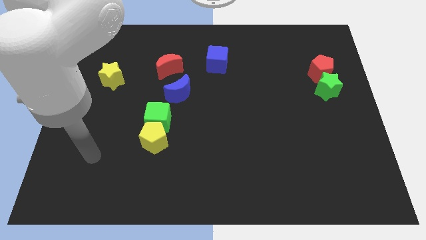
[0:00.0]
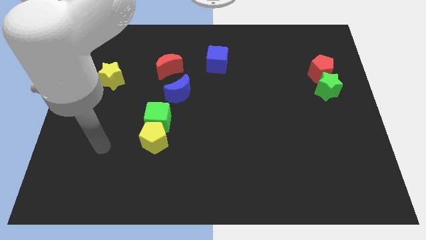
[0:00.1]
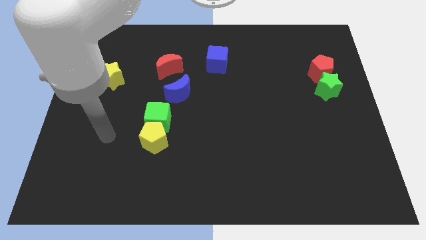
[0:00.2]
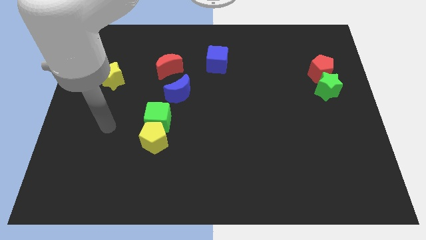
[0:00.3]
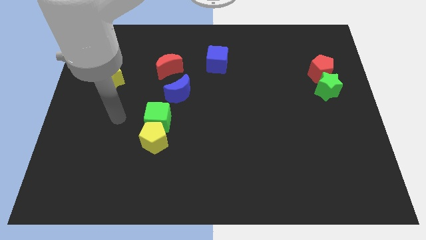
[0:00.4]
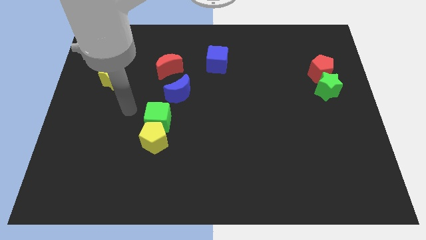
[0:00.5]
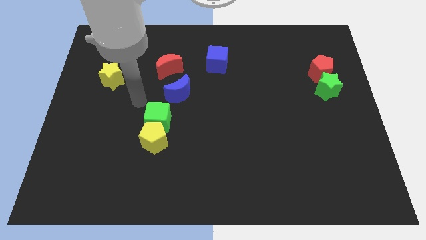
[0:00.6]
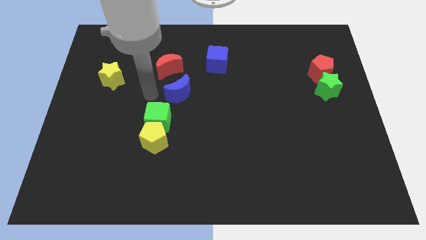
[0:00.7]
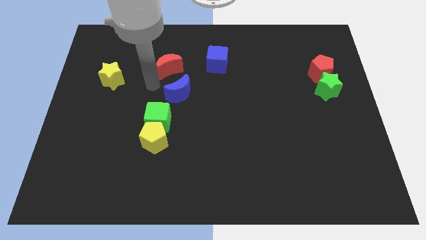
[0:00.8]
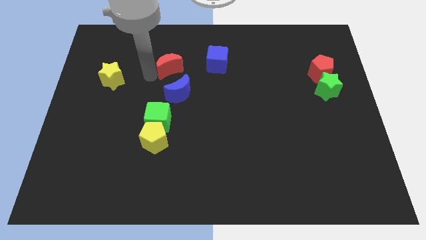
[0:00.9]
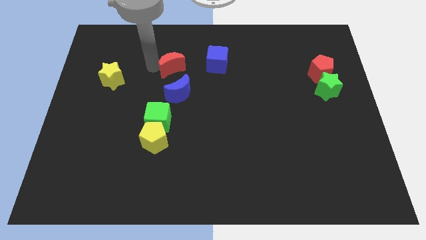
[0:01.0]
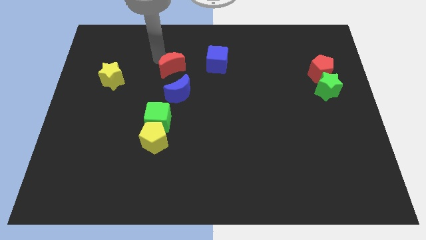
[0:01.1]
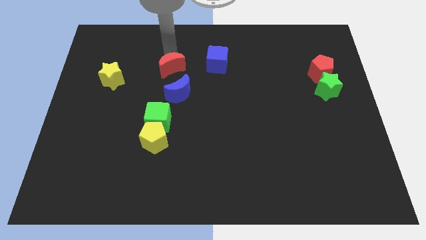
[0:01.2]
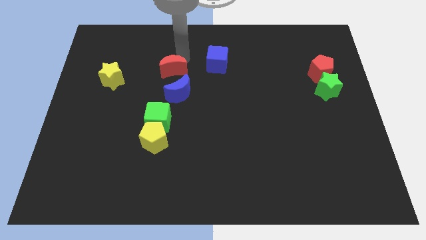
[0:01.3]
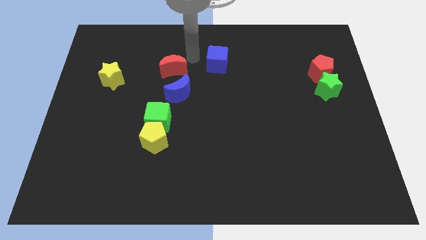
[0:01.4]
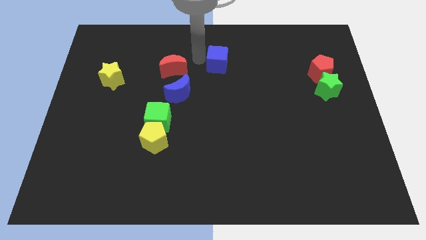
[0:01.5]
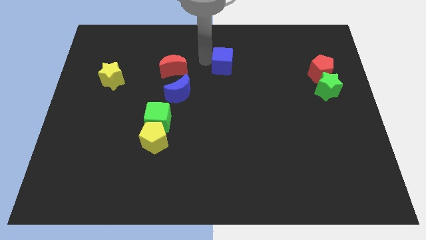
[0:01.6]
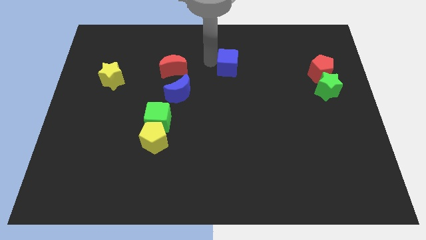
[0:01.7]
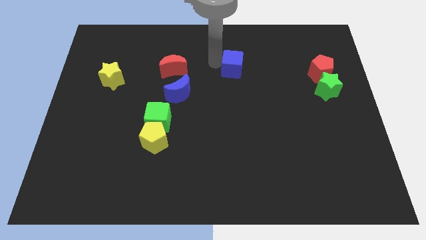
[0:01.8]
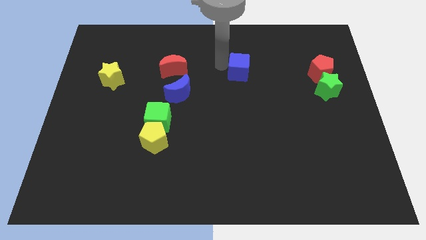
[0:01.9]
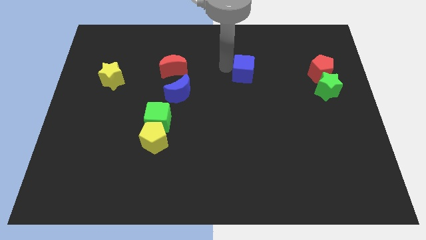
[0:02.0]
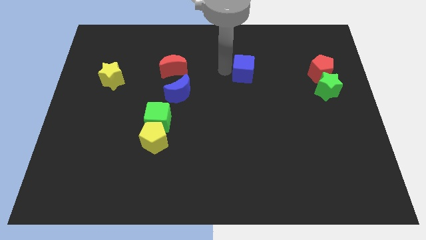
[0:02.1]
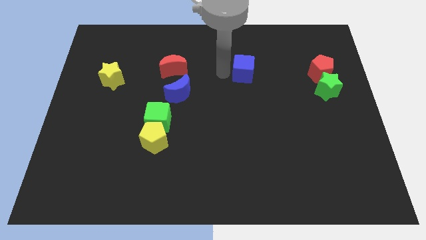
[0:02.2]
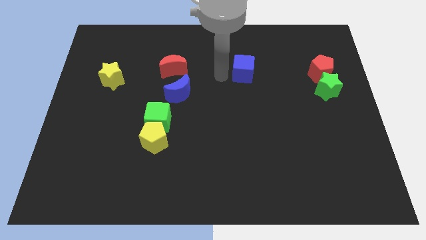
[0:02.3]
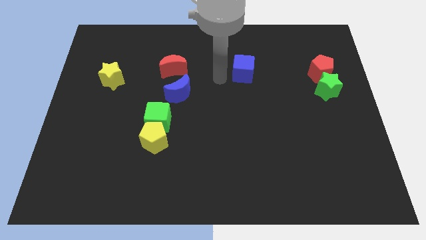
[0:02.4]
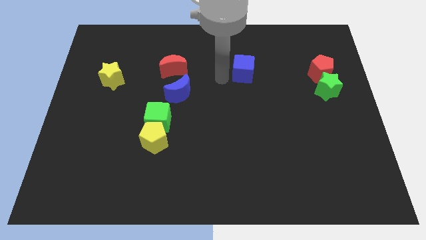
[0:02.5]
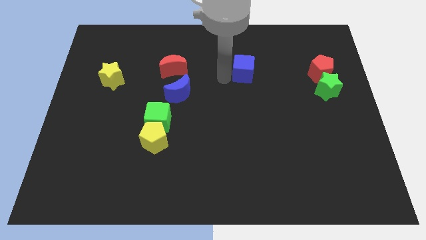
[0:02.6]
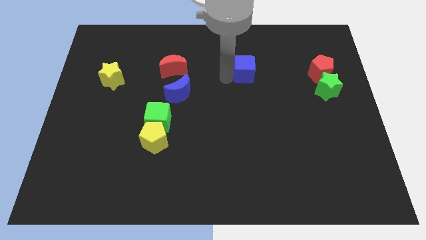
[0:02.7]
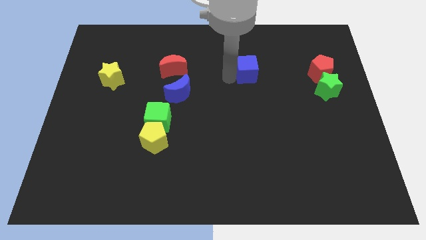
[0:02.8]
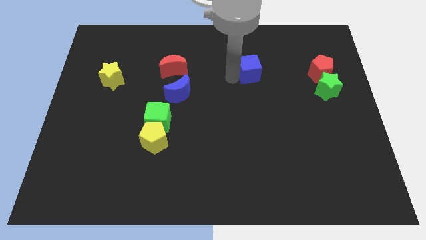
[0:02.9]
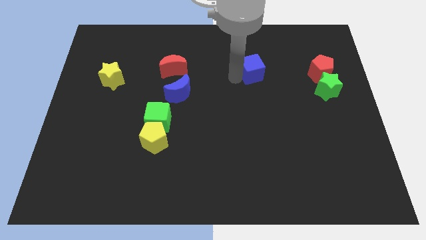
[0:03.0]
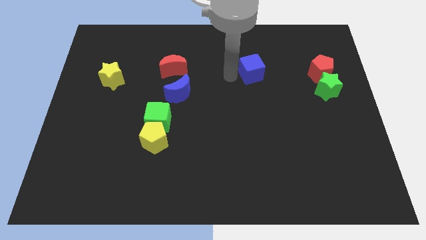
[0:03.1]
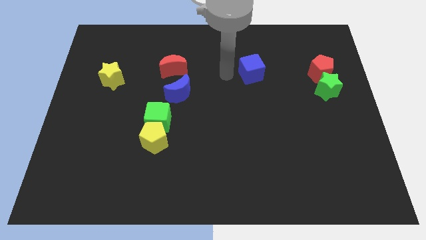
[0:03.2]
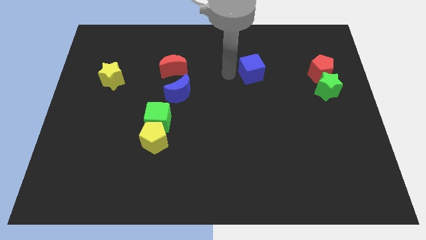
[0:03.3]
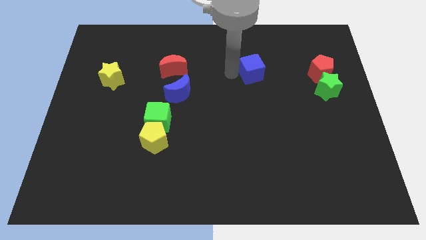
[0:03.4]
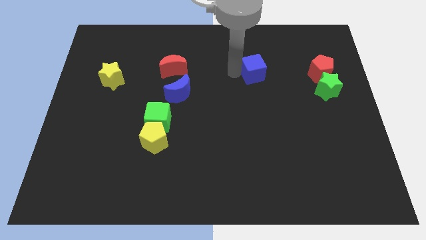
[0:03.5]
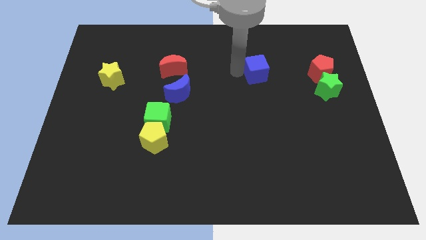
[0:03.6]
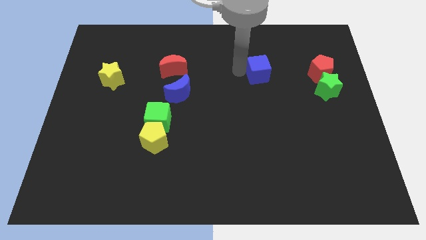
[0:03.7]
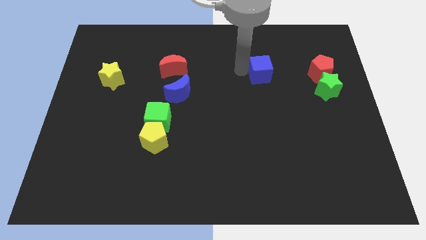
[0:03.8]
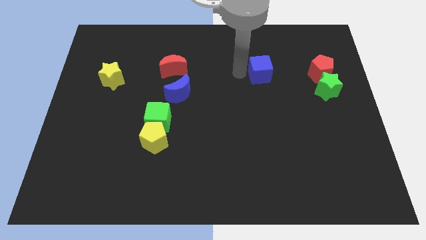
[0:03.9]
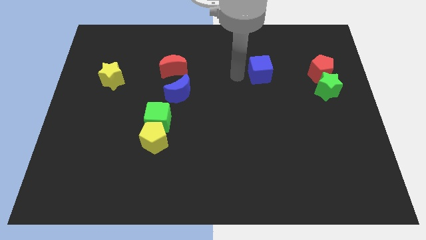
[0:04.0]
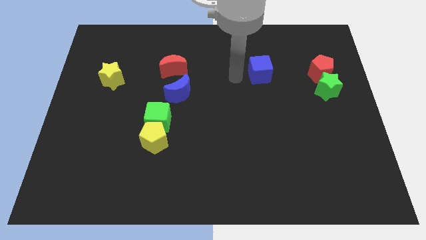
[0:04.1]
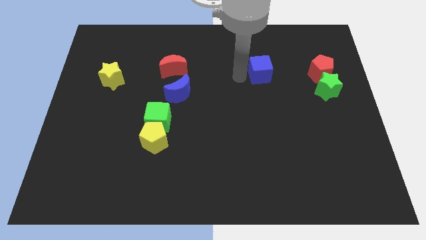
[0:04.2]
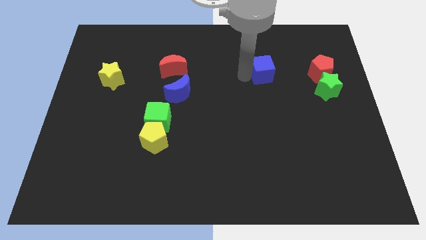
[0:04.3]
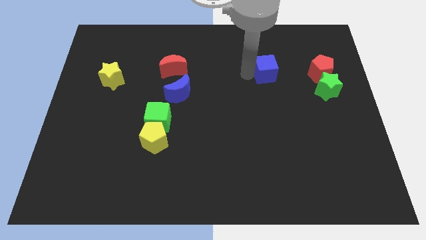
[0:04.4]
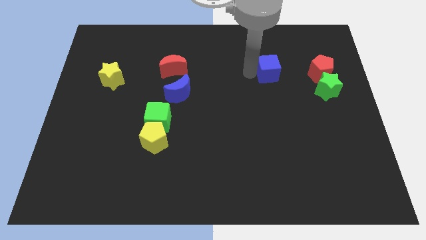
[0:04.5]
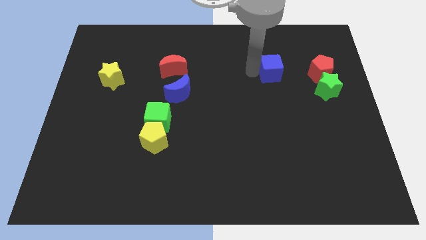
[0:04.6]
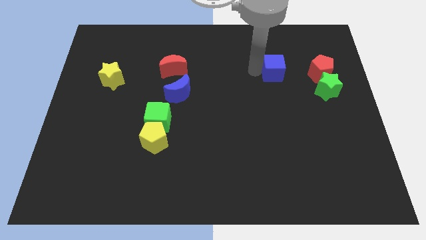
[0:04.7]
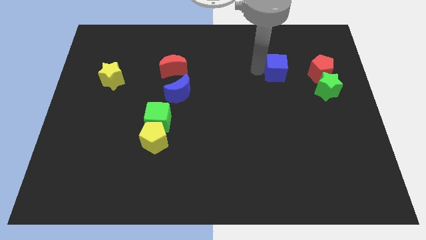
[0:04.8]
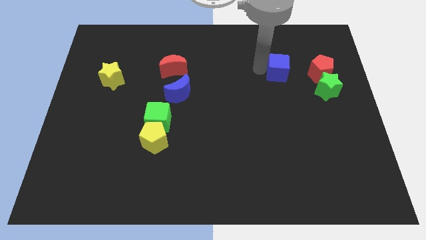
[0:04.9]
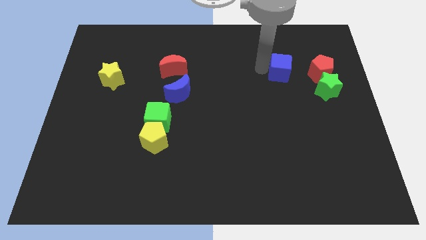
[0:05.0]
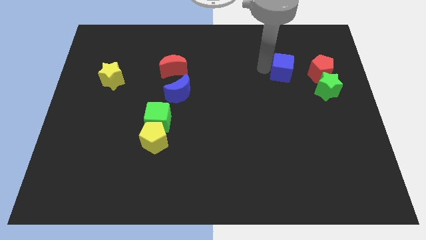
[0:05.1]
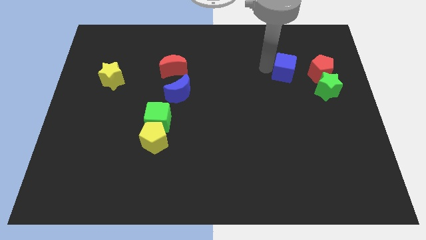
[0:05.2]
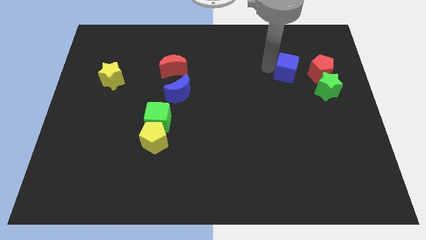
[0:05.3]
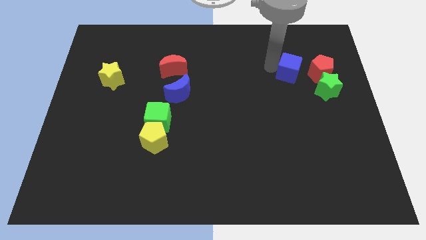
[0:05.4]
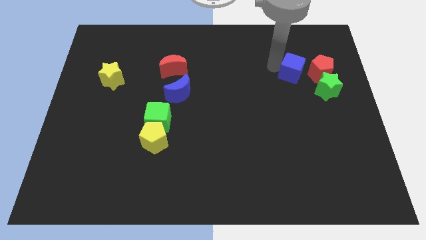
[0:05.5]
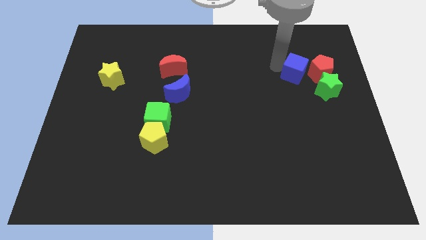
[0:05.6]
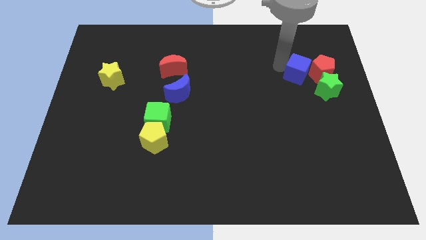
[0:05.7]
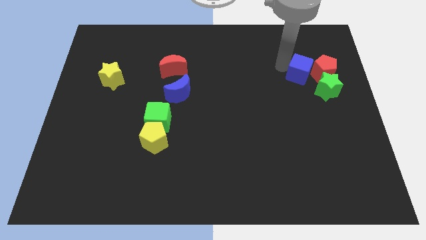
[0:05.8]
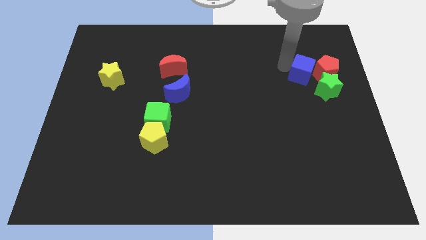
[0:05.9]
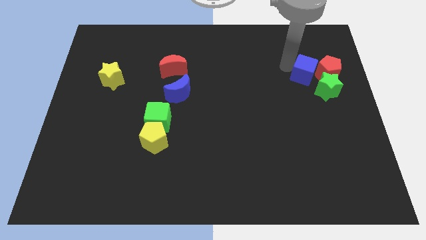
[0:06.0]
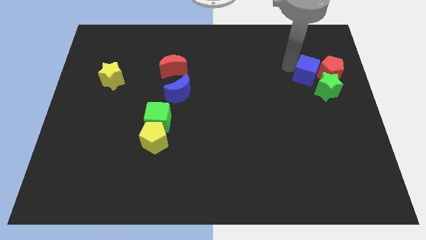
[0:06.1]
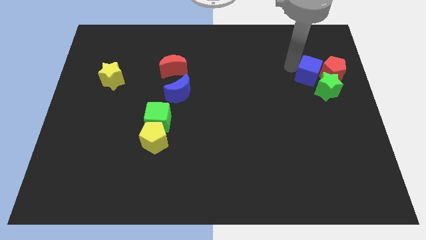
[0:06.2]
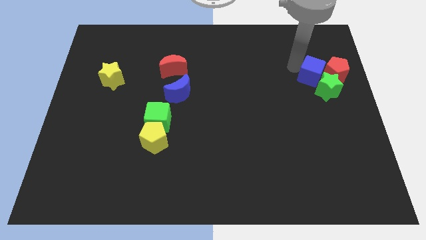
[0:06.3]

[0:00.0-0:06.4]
put the blue cube next to the green star

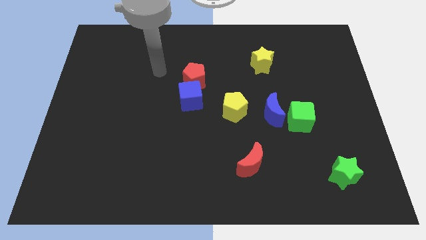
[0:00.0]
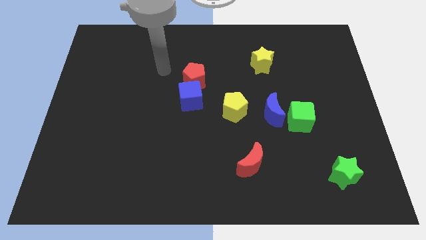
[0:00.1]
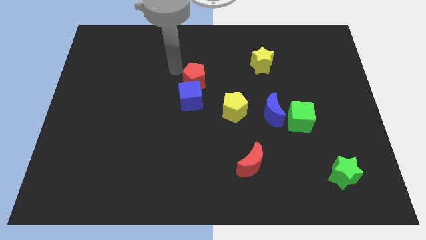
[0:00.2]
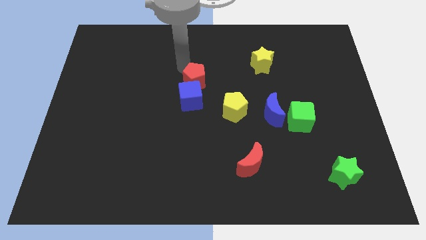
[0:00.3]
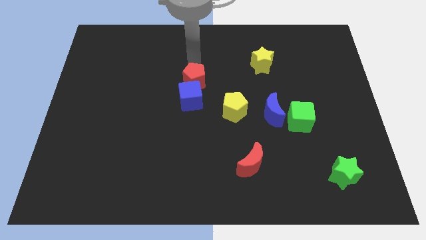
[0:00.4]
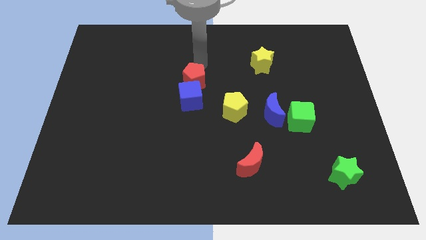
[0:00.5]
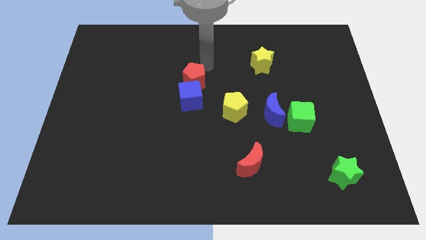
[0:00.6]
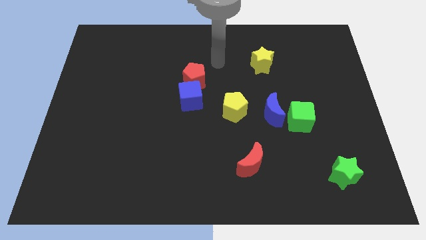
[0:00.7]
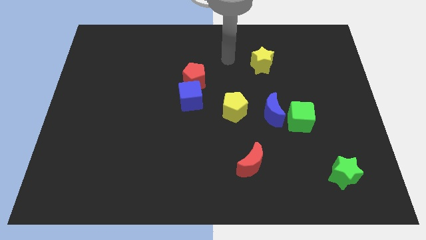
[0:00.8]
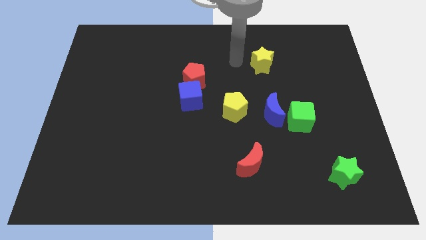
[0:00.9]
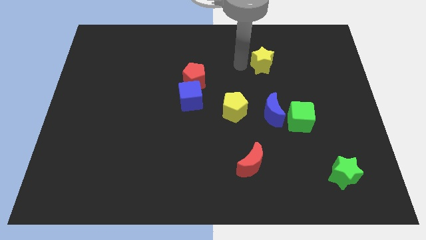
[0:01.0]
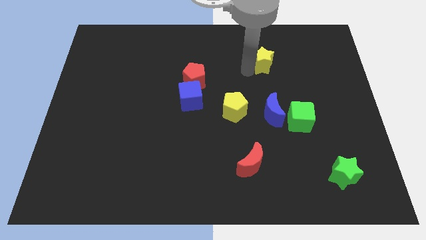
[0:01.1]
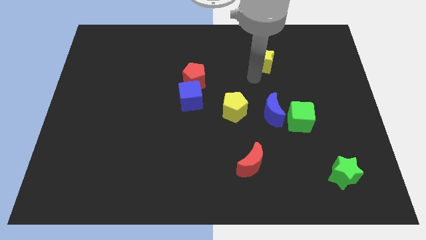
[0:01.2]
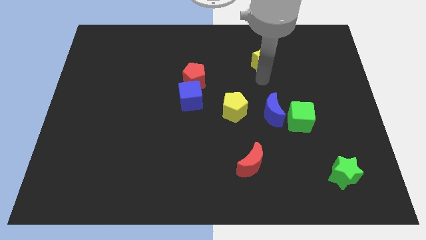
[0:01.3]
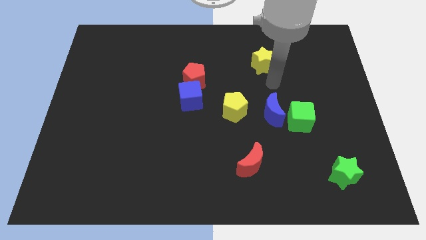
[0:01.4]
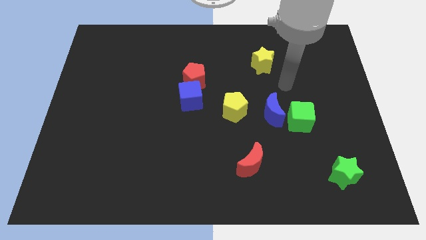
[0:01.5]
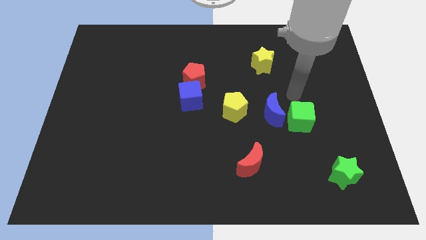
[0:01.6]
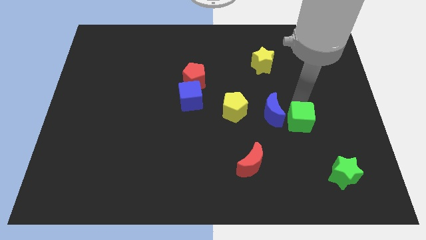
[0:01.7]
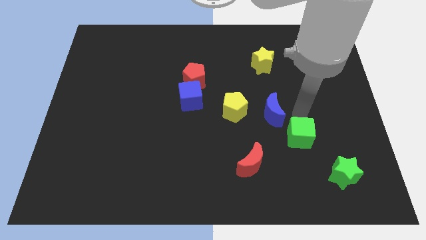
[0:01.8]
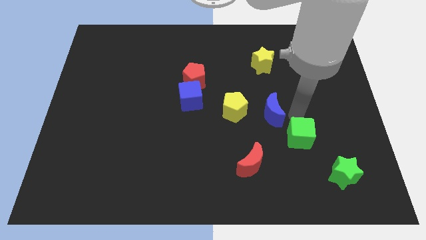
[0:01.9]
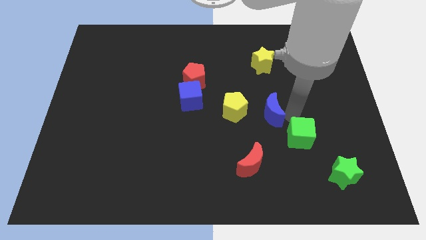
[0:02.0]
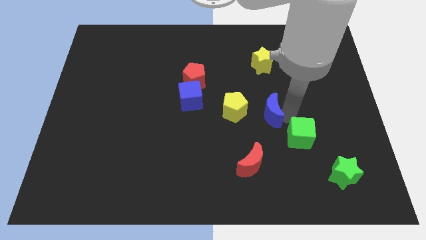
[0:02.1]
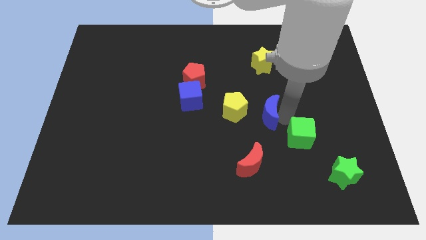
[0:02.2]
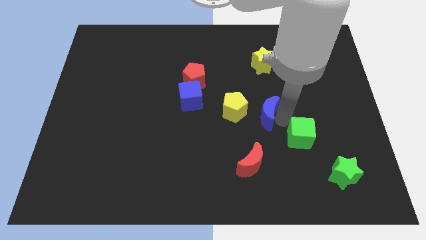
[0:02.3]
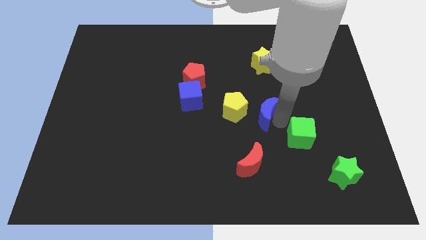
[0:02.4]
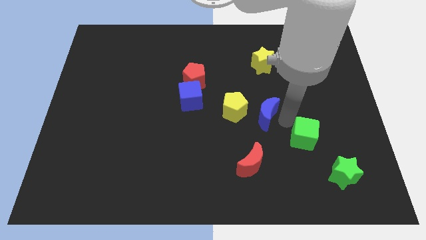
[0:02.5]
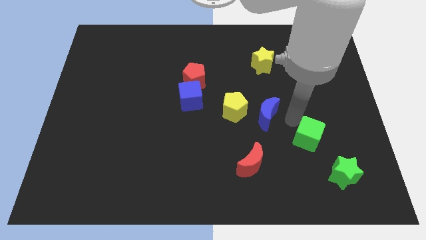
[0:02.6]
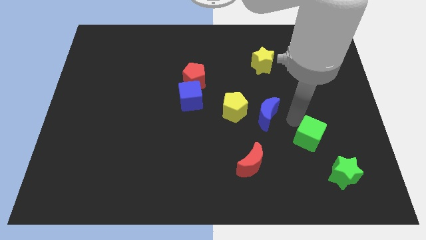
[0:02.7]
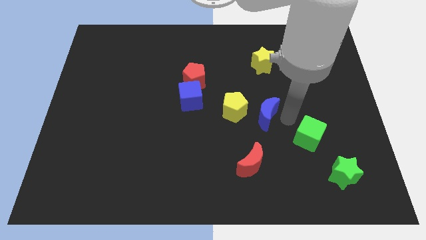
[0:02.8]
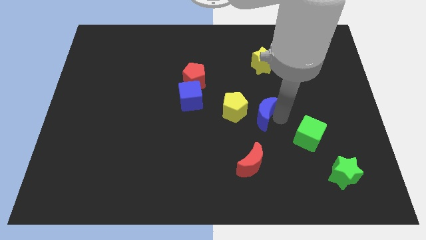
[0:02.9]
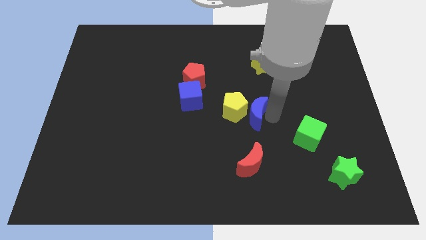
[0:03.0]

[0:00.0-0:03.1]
put the blue moon next to the yellow pentagon
